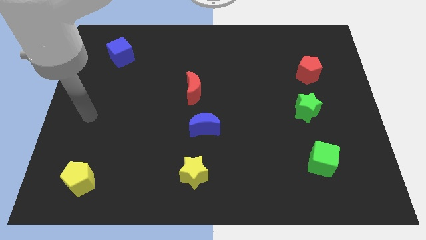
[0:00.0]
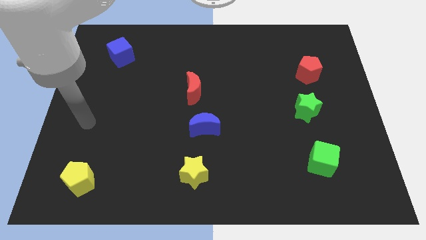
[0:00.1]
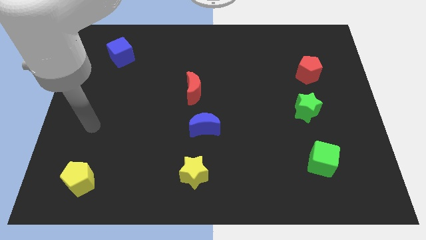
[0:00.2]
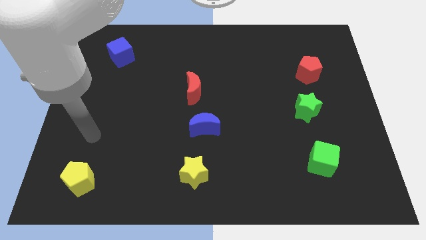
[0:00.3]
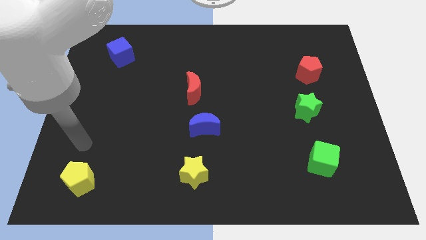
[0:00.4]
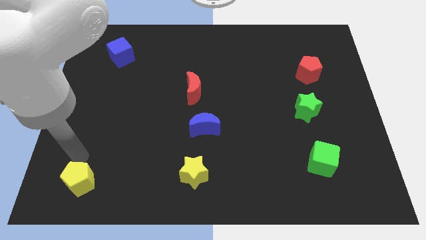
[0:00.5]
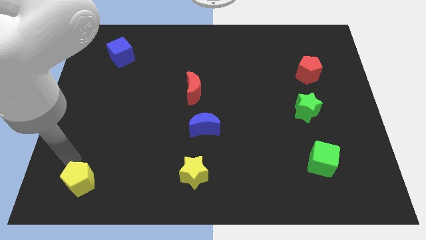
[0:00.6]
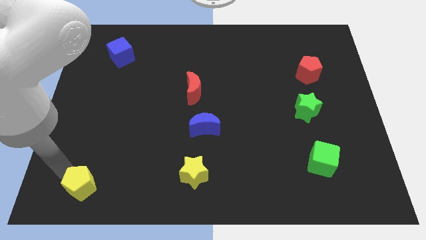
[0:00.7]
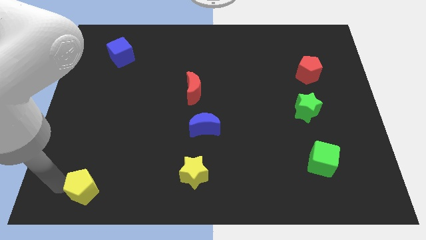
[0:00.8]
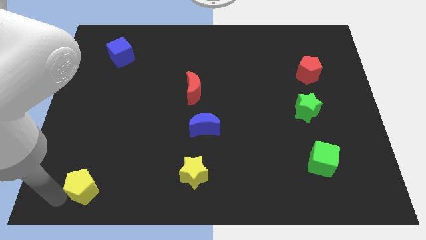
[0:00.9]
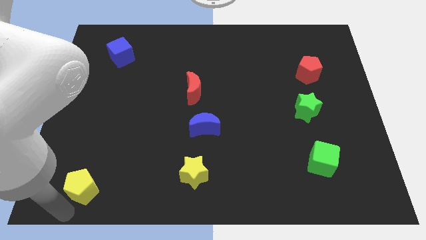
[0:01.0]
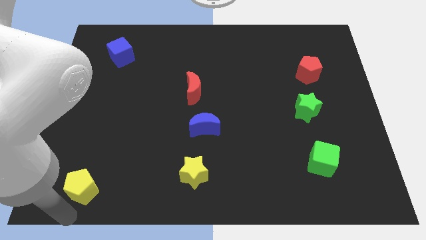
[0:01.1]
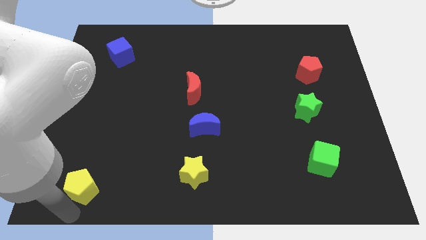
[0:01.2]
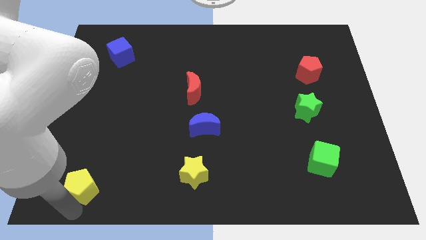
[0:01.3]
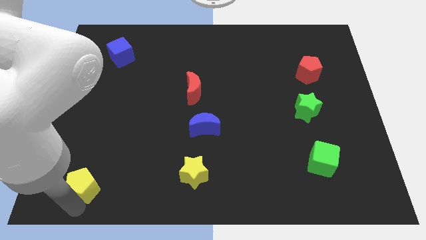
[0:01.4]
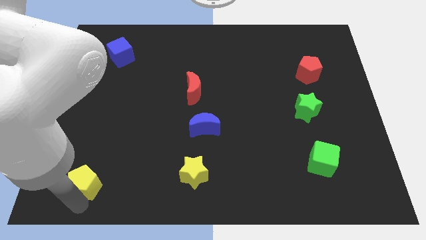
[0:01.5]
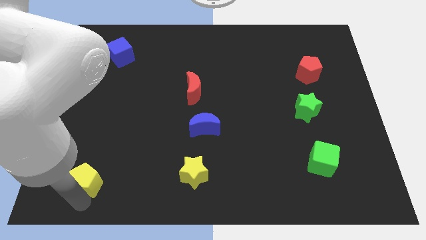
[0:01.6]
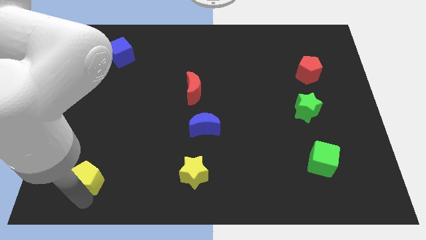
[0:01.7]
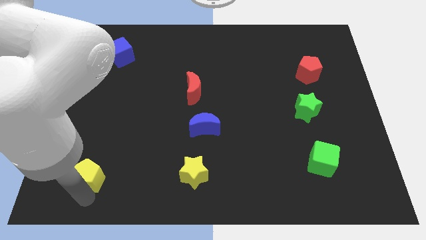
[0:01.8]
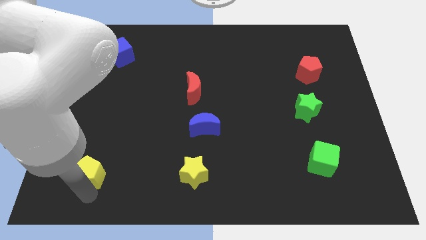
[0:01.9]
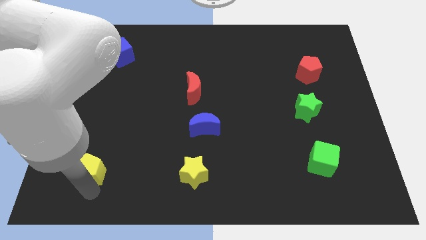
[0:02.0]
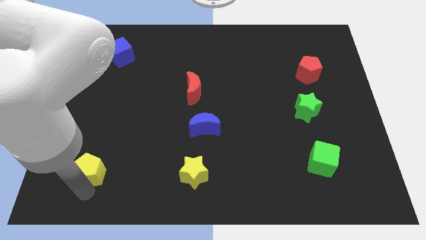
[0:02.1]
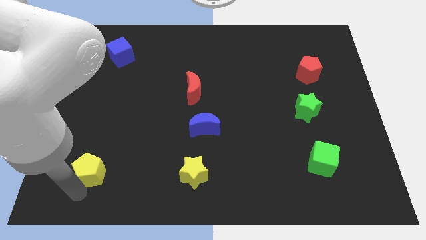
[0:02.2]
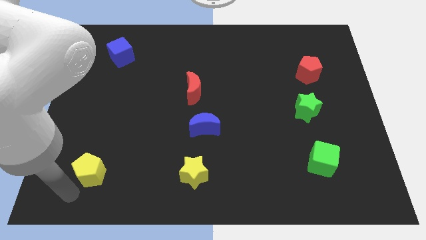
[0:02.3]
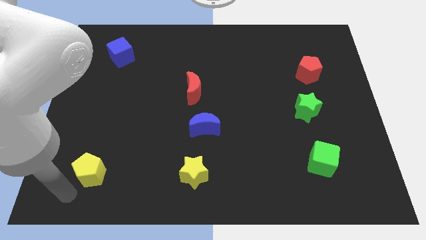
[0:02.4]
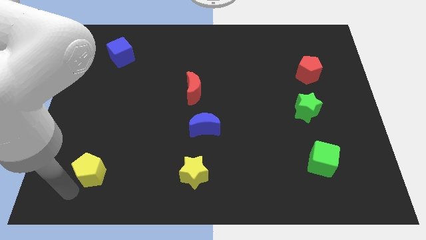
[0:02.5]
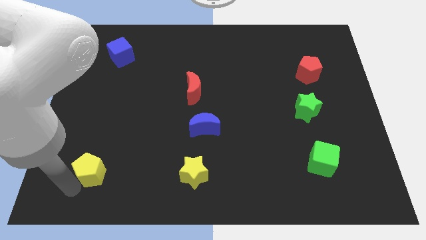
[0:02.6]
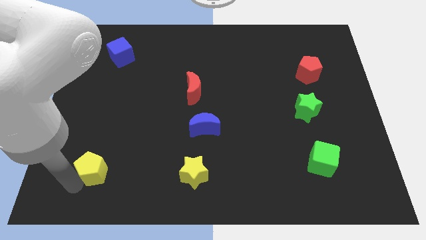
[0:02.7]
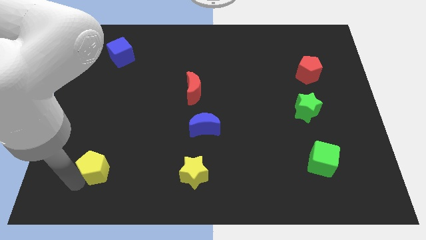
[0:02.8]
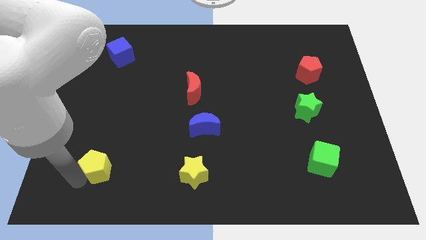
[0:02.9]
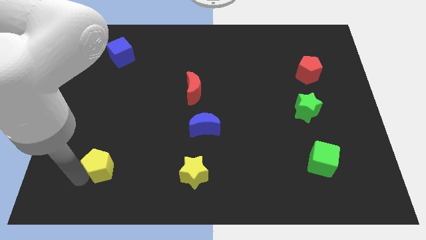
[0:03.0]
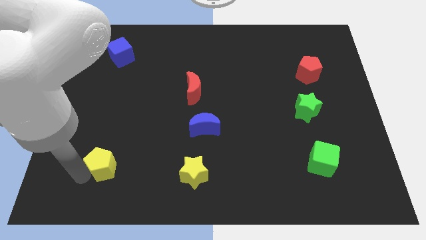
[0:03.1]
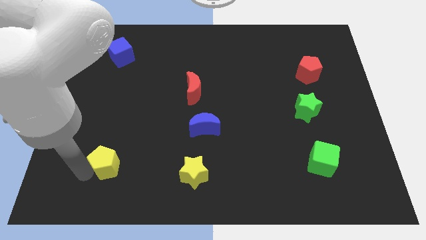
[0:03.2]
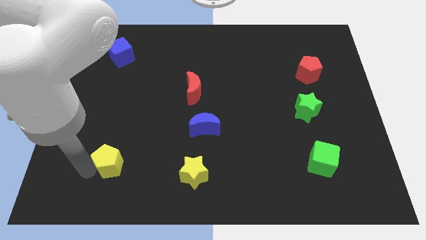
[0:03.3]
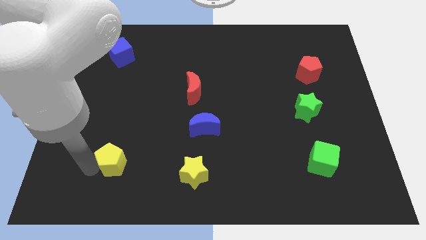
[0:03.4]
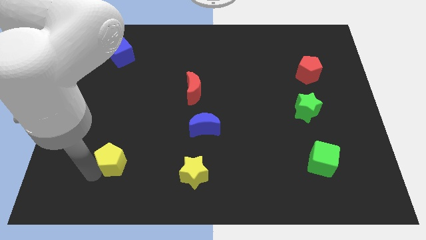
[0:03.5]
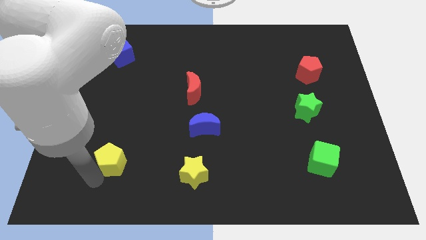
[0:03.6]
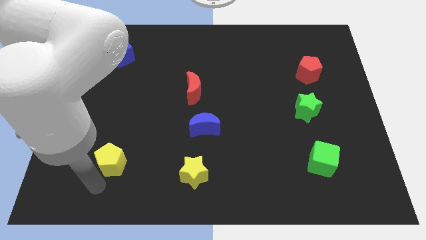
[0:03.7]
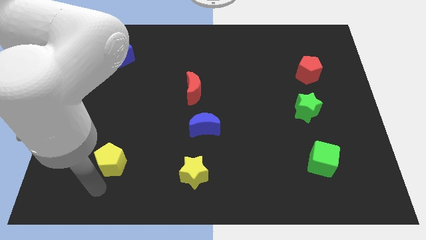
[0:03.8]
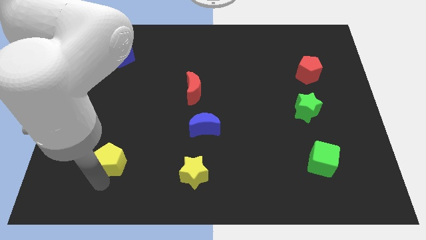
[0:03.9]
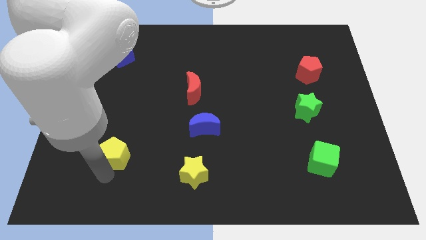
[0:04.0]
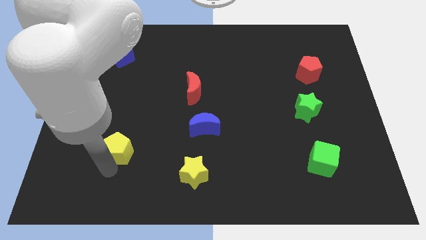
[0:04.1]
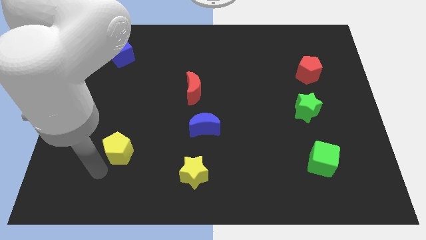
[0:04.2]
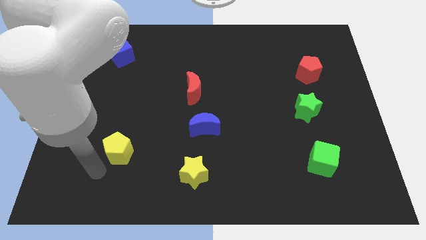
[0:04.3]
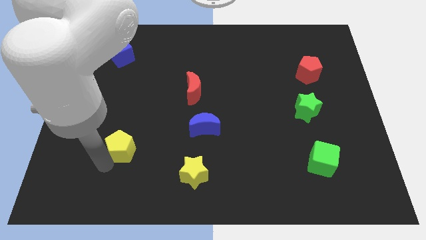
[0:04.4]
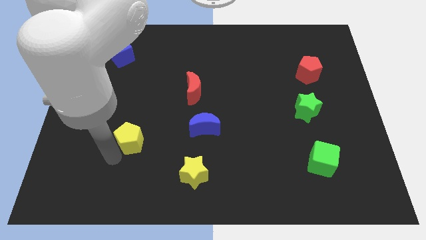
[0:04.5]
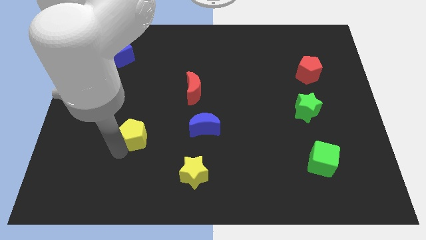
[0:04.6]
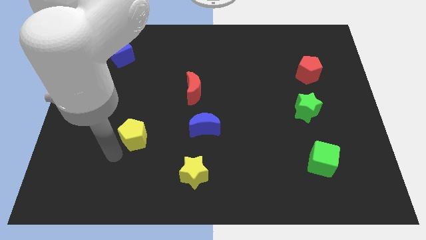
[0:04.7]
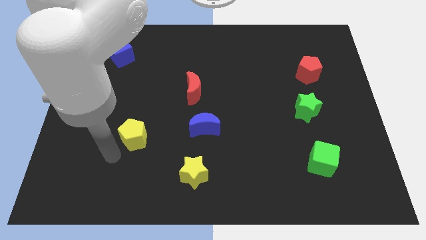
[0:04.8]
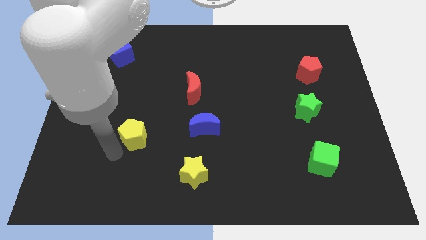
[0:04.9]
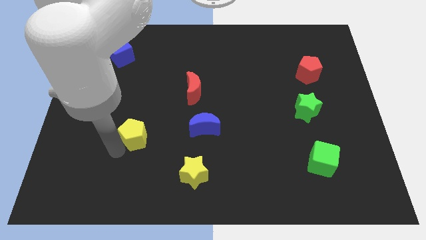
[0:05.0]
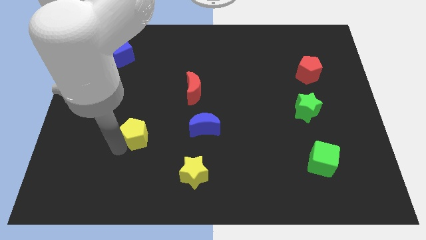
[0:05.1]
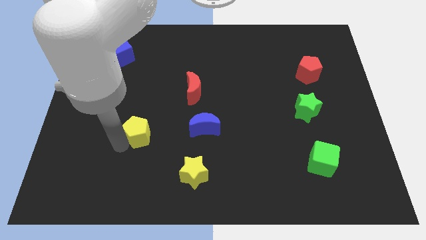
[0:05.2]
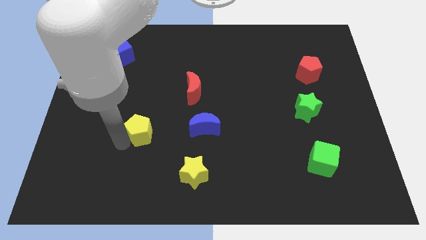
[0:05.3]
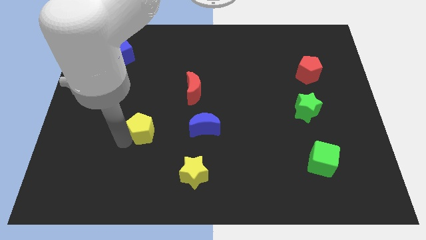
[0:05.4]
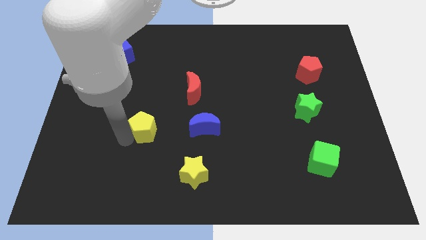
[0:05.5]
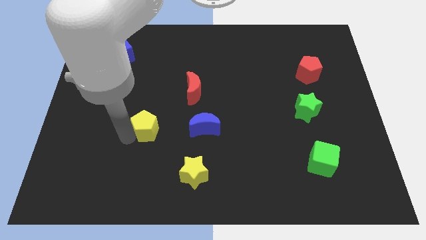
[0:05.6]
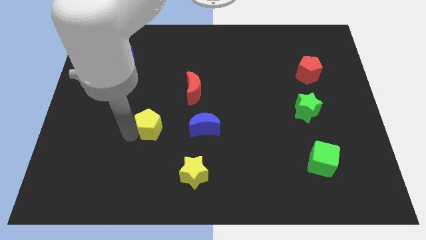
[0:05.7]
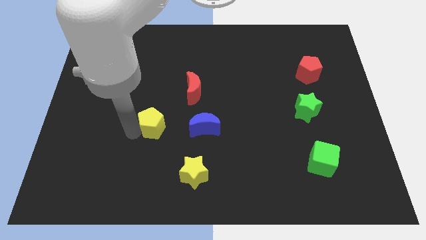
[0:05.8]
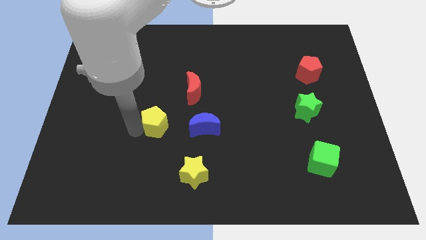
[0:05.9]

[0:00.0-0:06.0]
move the yellow pentagon diagonally down and to the left of the red moon
